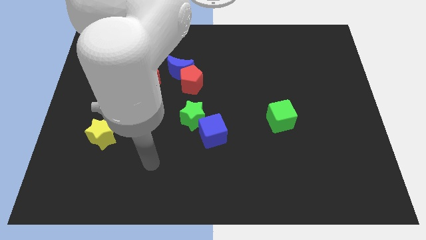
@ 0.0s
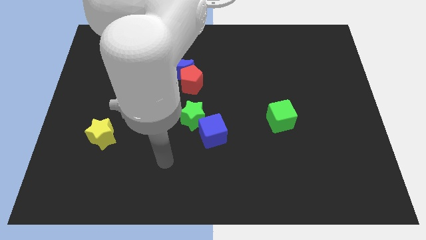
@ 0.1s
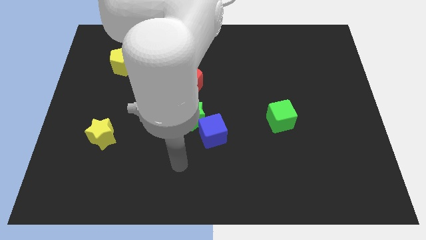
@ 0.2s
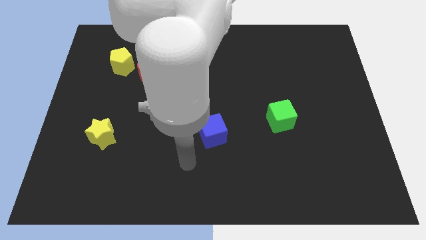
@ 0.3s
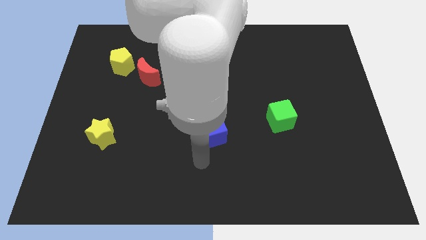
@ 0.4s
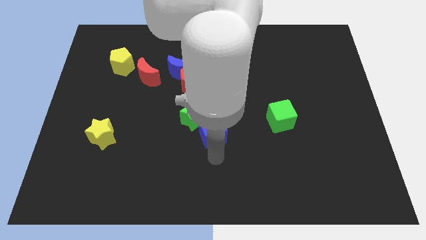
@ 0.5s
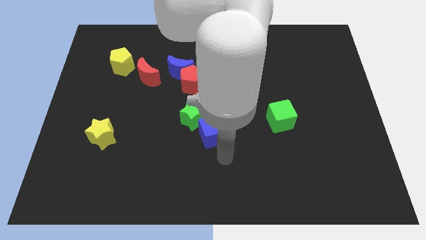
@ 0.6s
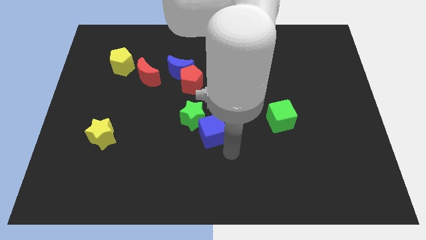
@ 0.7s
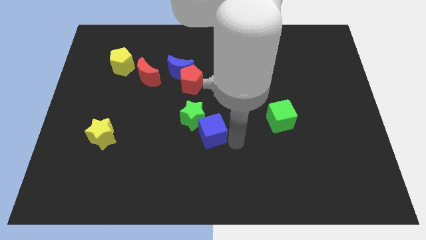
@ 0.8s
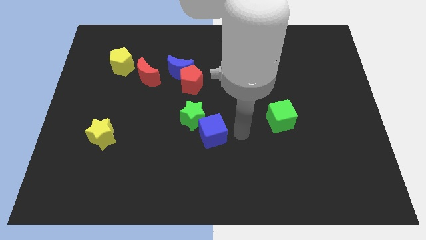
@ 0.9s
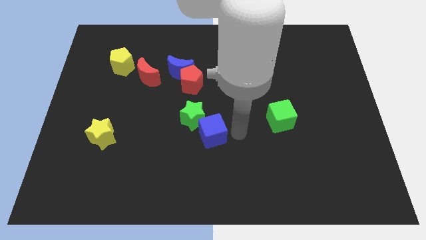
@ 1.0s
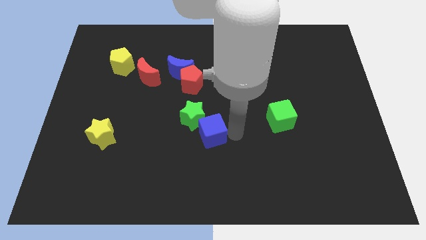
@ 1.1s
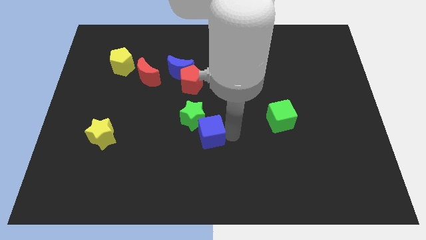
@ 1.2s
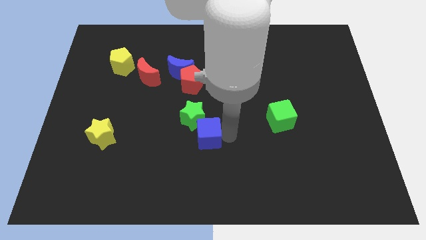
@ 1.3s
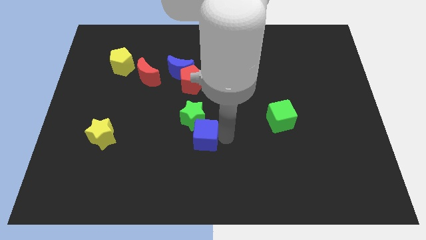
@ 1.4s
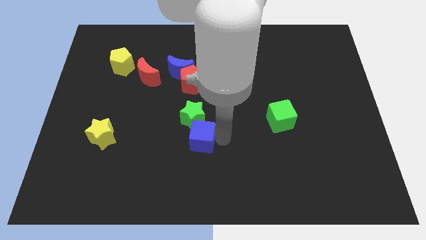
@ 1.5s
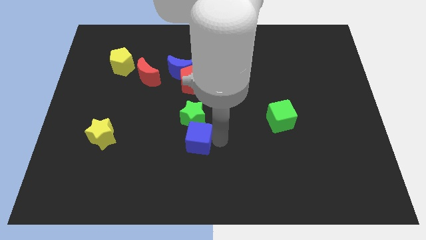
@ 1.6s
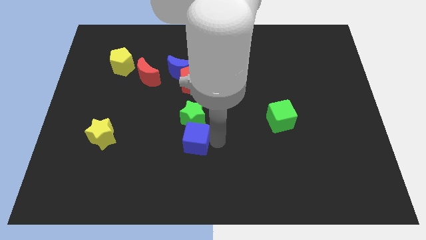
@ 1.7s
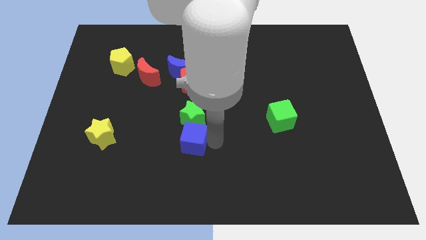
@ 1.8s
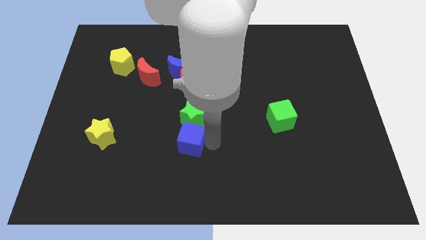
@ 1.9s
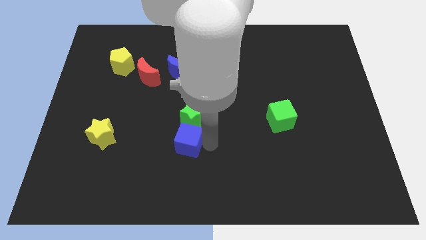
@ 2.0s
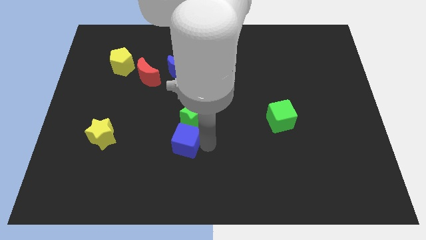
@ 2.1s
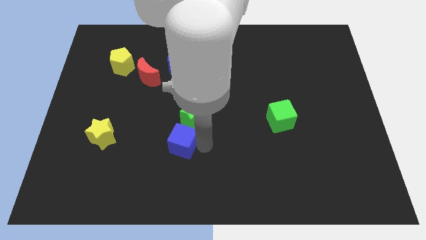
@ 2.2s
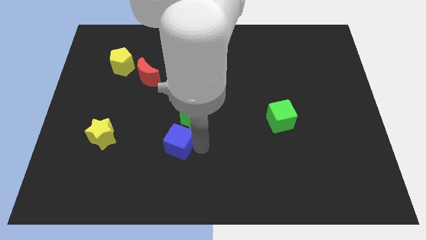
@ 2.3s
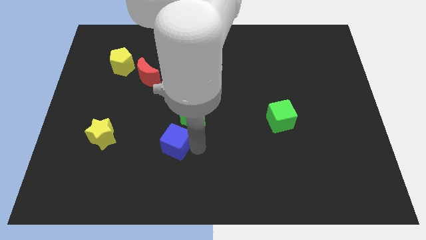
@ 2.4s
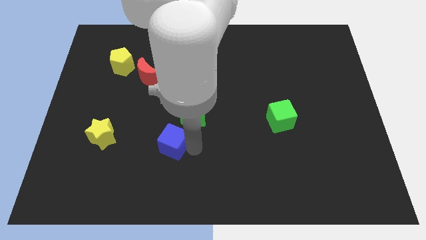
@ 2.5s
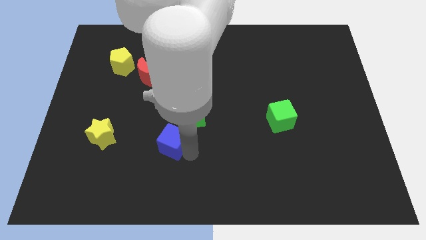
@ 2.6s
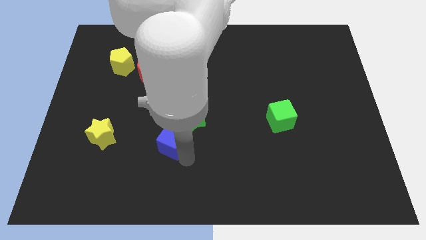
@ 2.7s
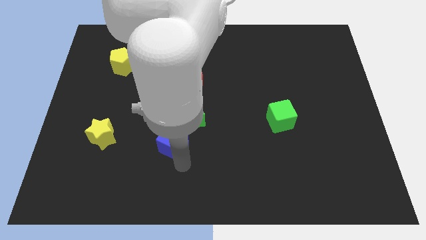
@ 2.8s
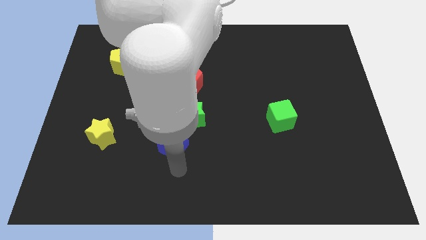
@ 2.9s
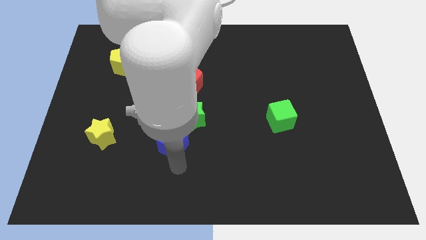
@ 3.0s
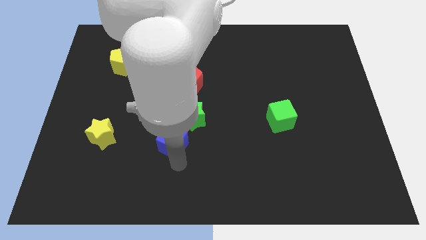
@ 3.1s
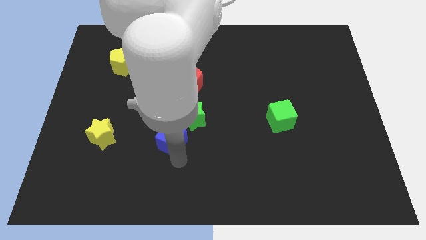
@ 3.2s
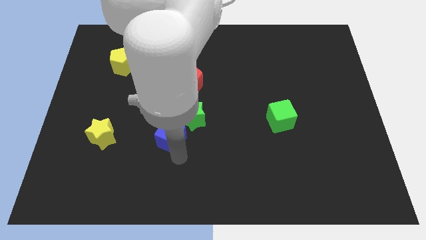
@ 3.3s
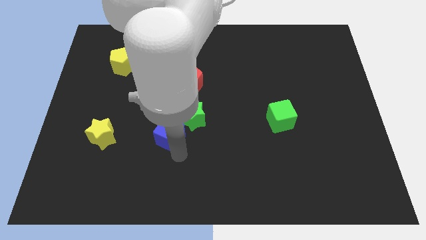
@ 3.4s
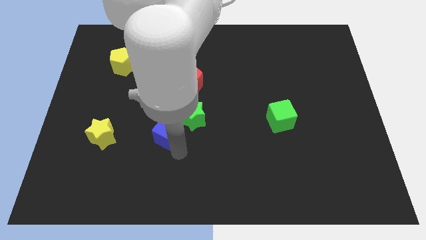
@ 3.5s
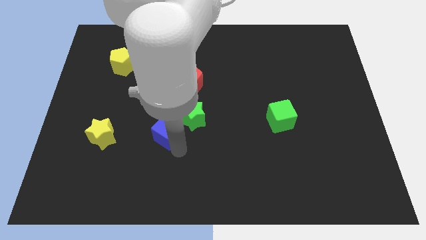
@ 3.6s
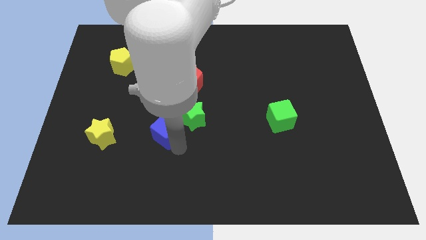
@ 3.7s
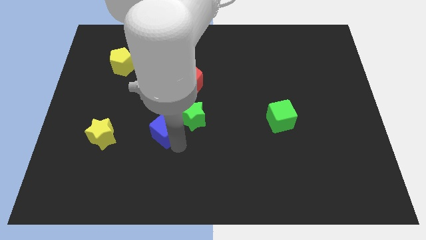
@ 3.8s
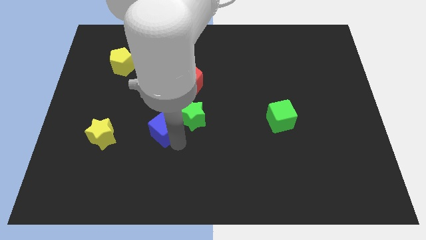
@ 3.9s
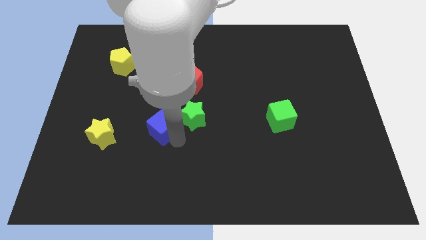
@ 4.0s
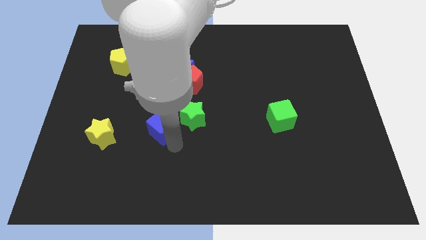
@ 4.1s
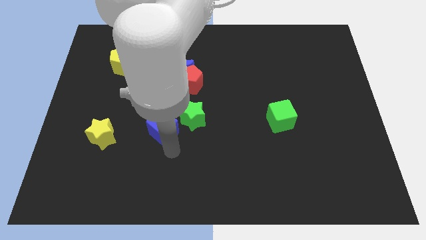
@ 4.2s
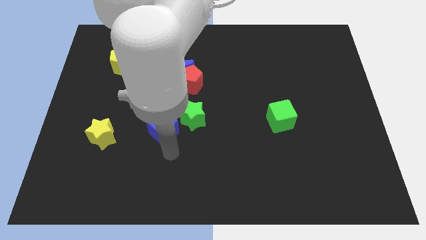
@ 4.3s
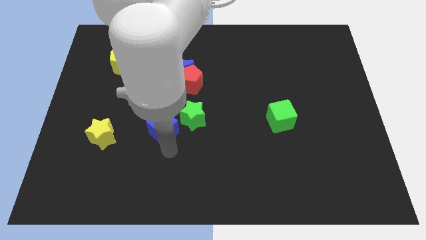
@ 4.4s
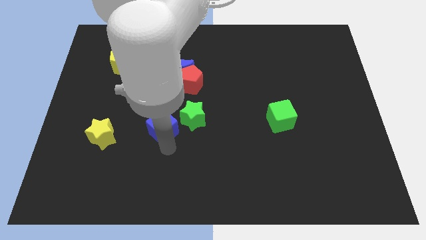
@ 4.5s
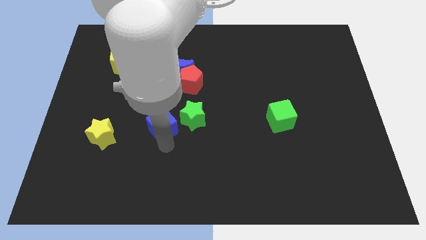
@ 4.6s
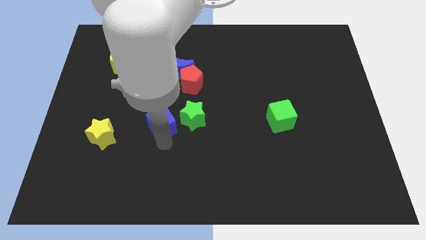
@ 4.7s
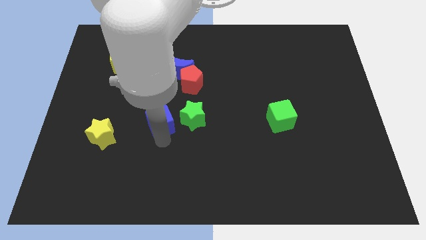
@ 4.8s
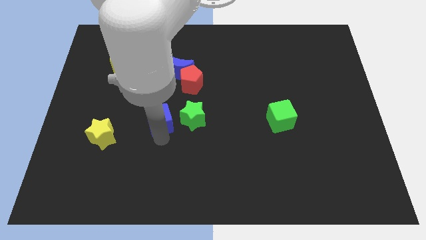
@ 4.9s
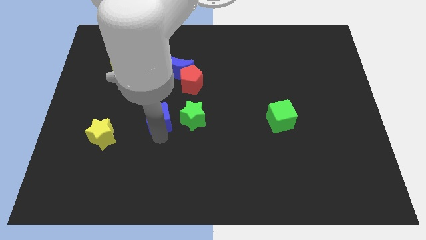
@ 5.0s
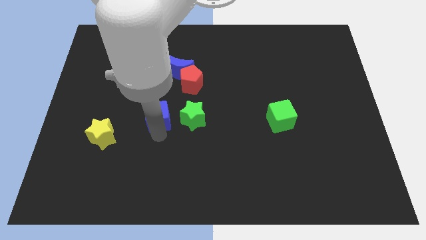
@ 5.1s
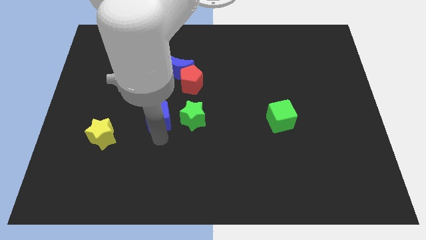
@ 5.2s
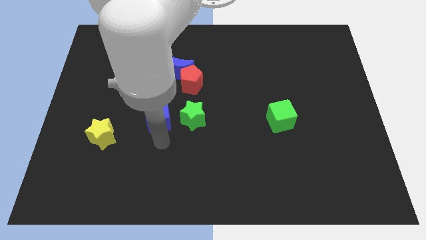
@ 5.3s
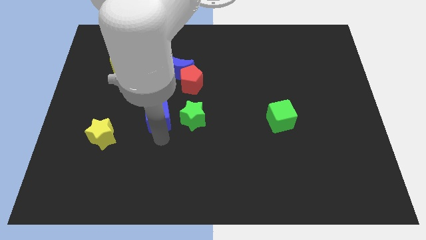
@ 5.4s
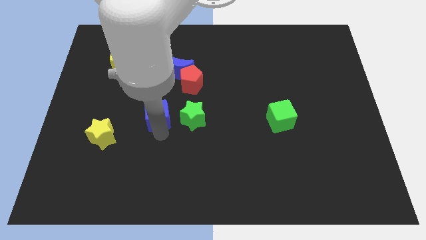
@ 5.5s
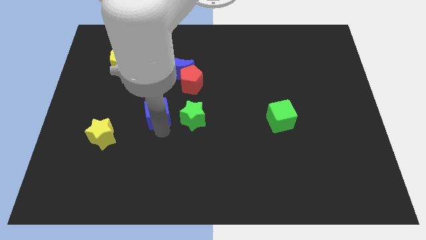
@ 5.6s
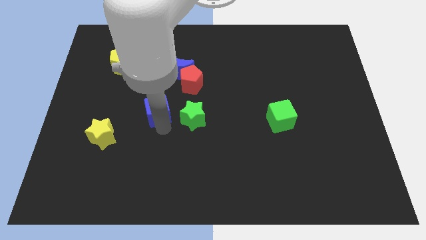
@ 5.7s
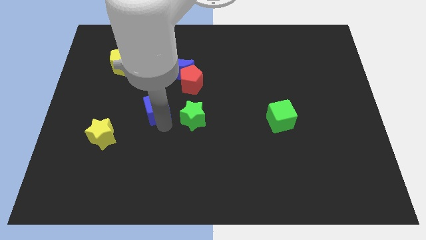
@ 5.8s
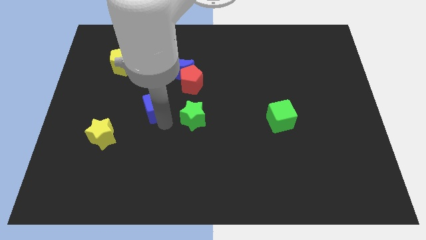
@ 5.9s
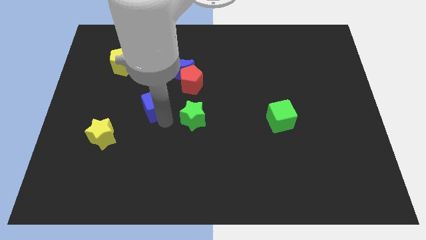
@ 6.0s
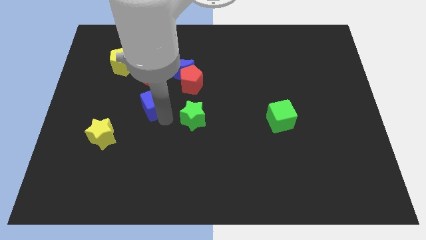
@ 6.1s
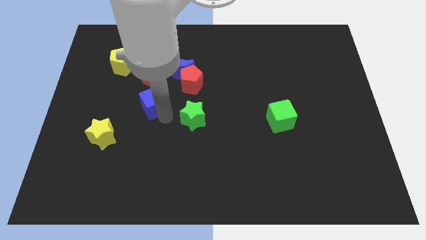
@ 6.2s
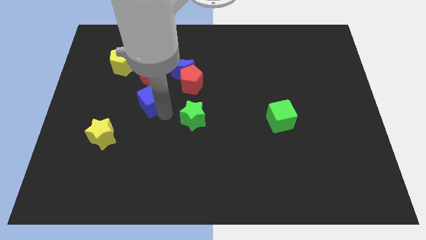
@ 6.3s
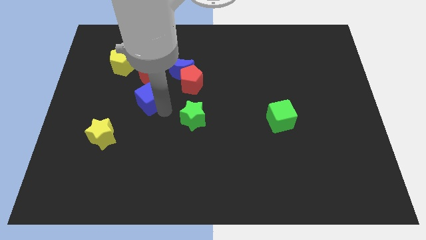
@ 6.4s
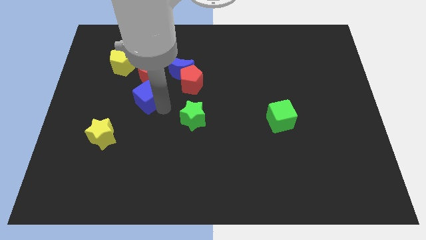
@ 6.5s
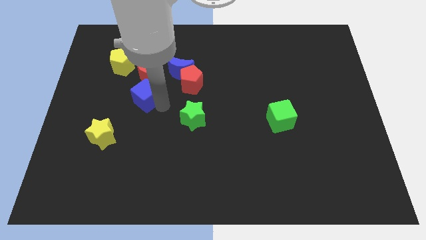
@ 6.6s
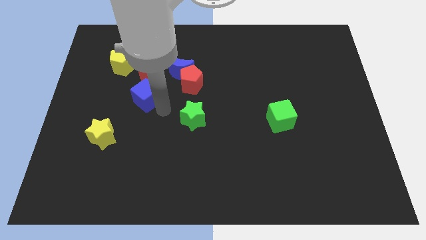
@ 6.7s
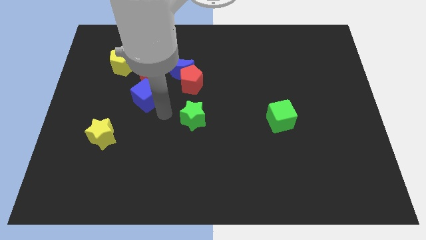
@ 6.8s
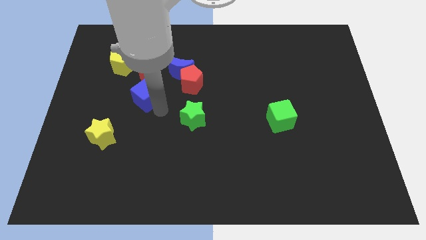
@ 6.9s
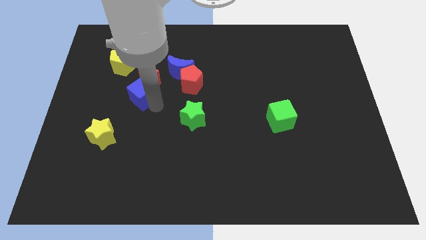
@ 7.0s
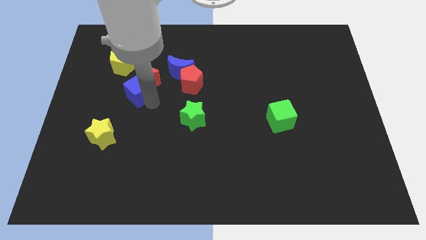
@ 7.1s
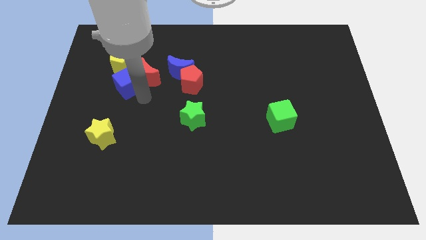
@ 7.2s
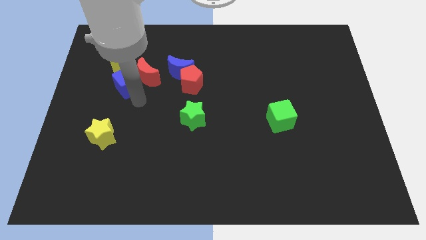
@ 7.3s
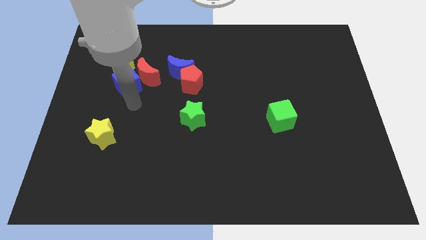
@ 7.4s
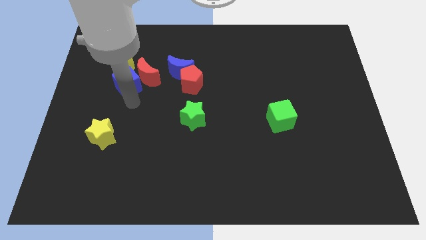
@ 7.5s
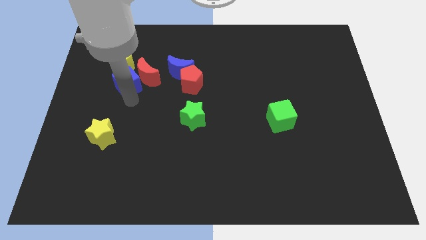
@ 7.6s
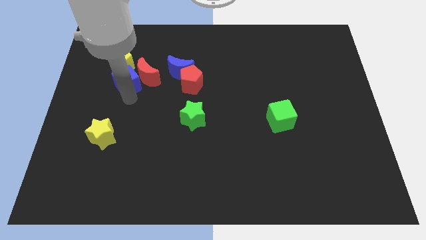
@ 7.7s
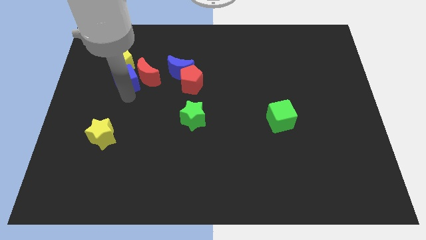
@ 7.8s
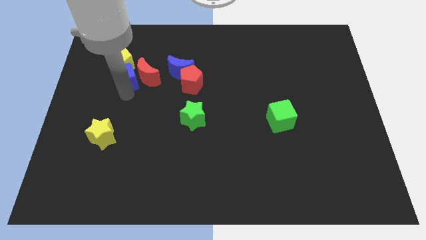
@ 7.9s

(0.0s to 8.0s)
push the blue cube next to the yellow pentagon
